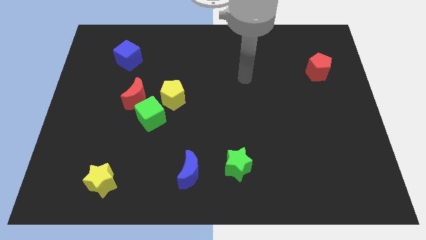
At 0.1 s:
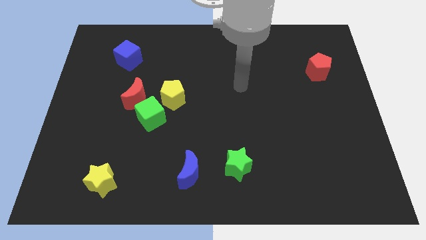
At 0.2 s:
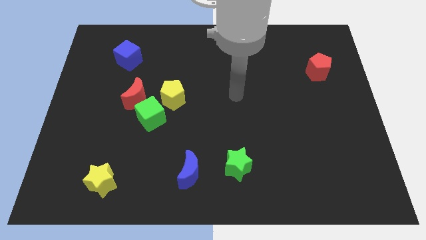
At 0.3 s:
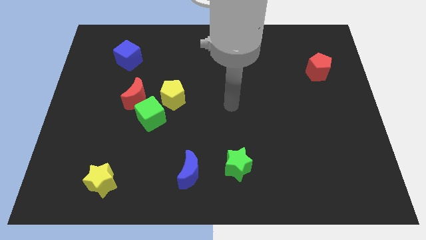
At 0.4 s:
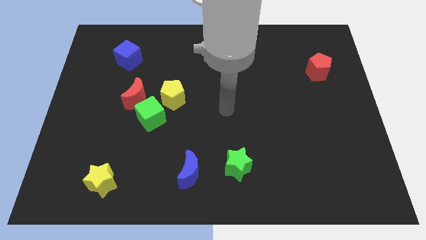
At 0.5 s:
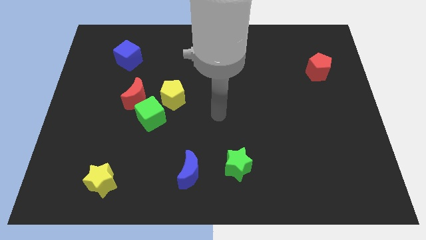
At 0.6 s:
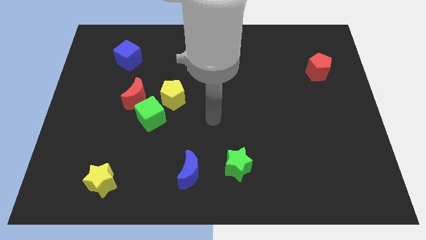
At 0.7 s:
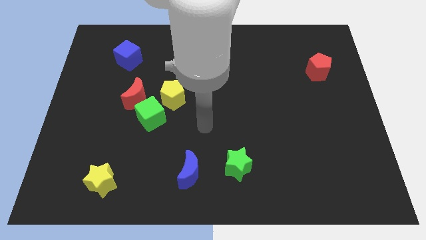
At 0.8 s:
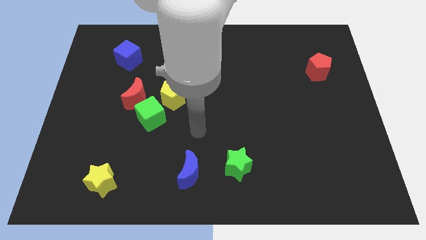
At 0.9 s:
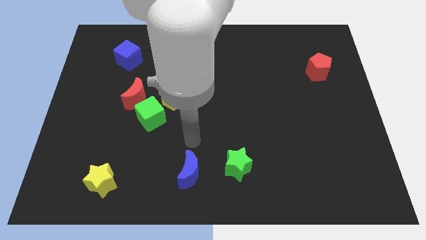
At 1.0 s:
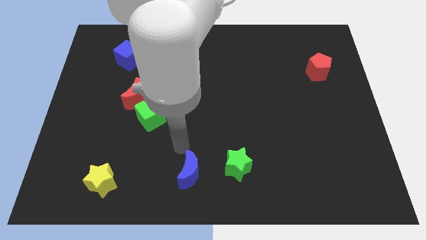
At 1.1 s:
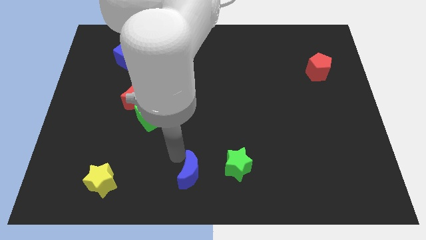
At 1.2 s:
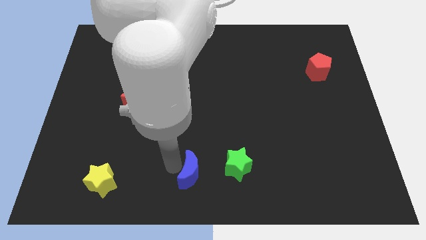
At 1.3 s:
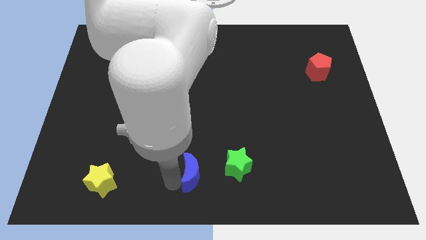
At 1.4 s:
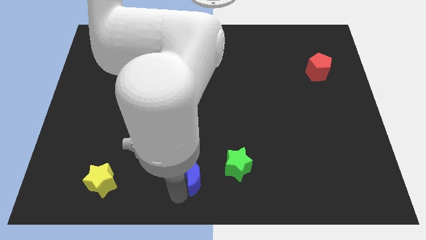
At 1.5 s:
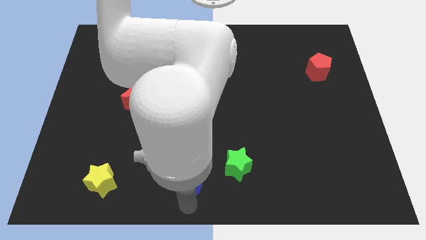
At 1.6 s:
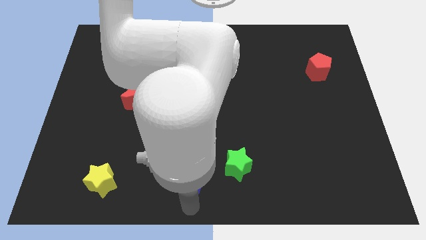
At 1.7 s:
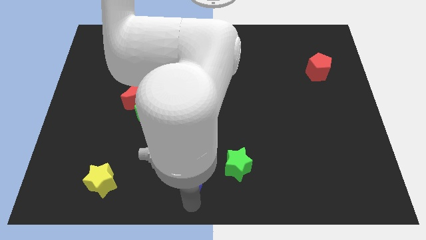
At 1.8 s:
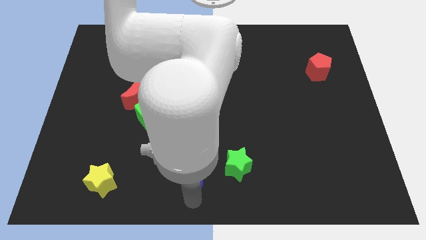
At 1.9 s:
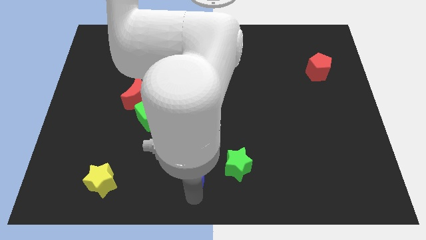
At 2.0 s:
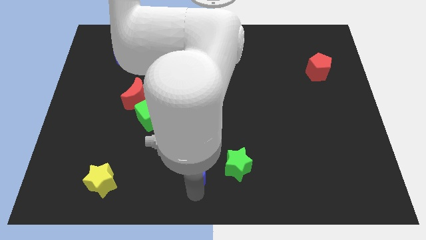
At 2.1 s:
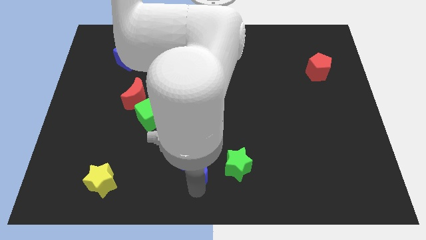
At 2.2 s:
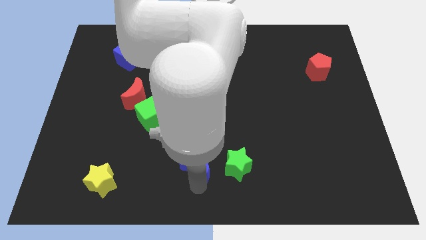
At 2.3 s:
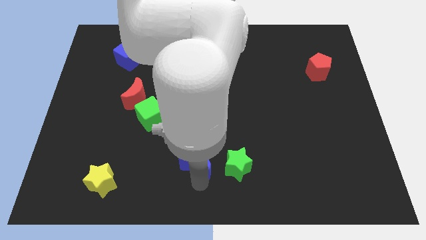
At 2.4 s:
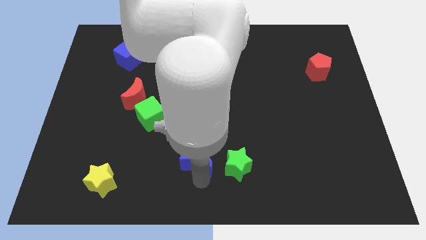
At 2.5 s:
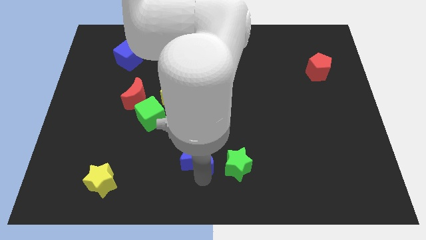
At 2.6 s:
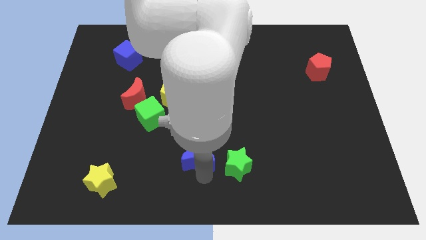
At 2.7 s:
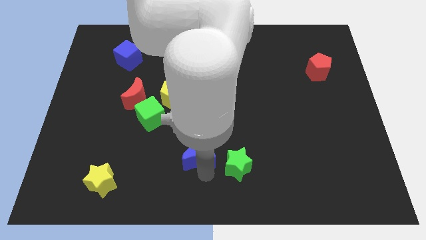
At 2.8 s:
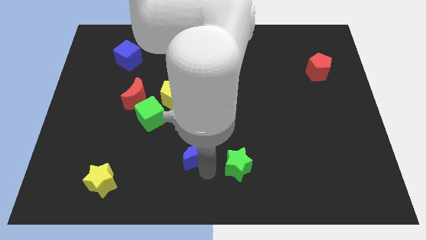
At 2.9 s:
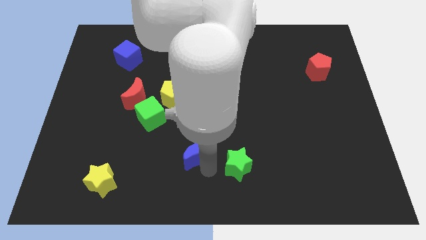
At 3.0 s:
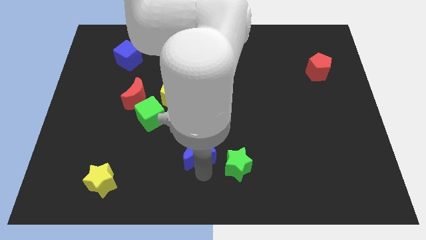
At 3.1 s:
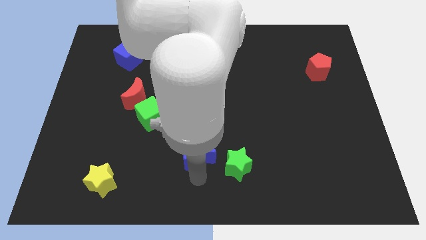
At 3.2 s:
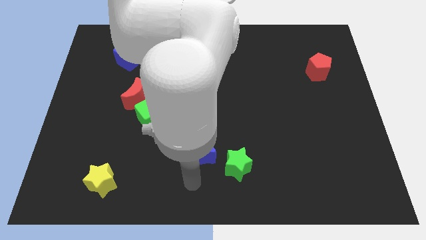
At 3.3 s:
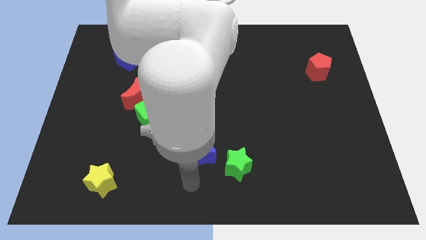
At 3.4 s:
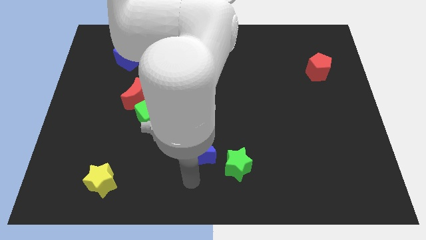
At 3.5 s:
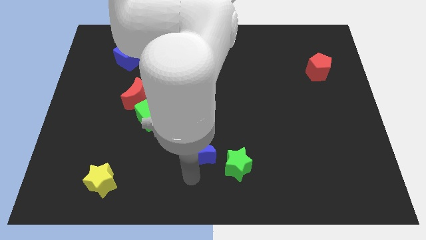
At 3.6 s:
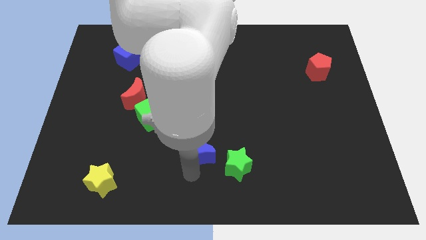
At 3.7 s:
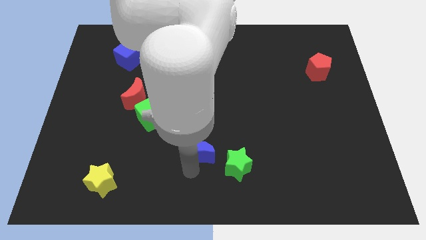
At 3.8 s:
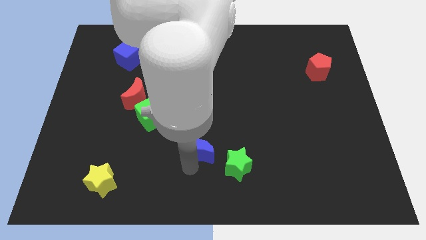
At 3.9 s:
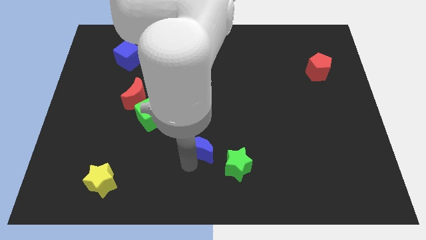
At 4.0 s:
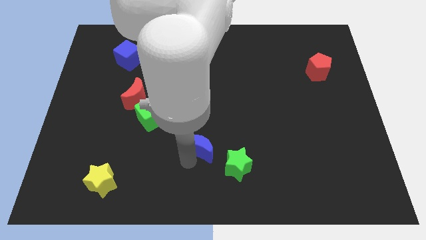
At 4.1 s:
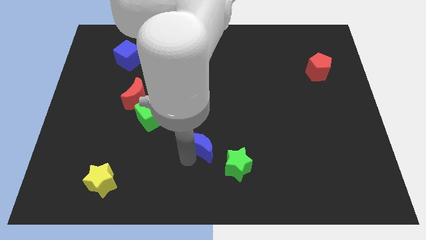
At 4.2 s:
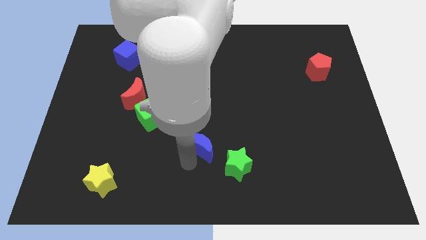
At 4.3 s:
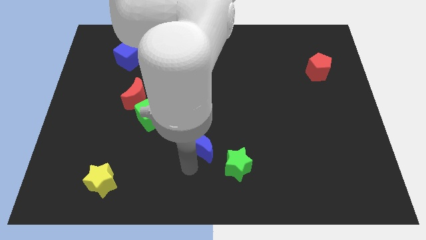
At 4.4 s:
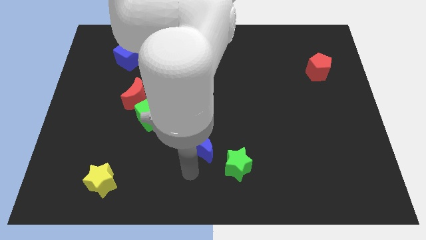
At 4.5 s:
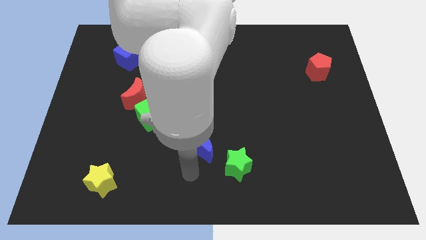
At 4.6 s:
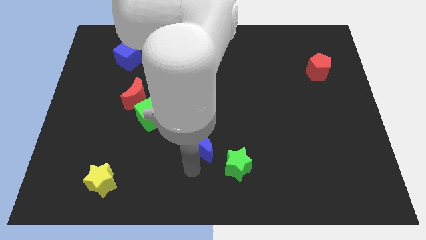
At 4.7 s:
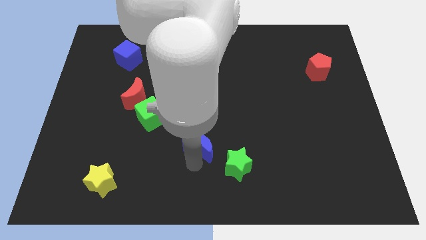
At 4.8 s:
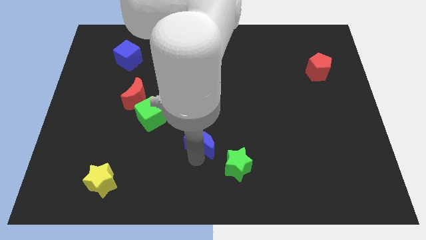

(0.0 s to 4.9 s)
push the blue moon to the center of the board

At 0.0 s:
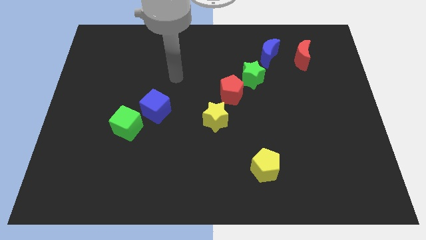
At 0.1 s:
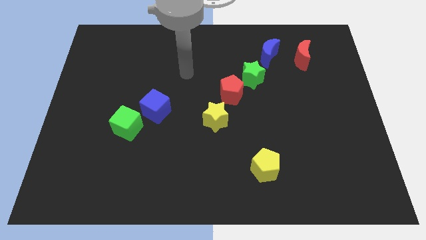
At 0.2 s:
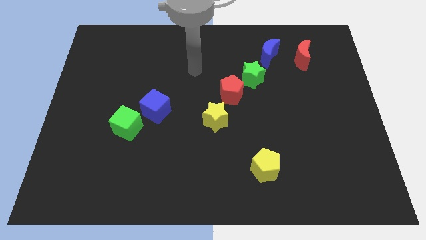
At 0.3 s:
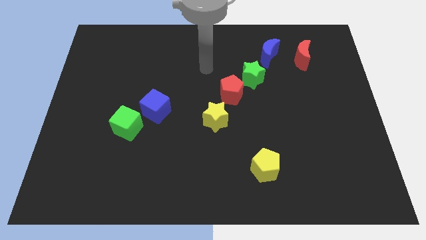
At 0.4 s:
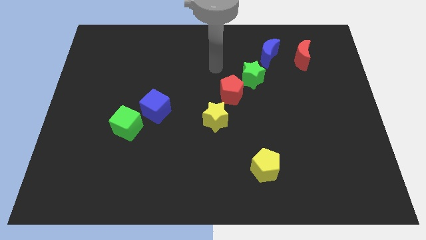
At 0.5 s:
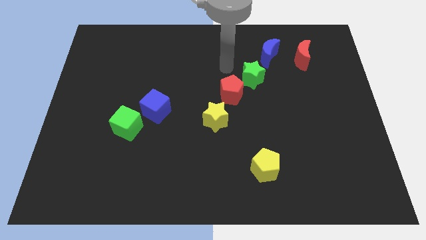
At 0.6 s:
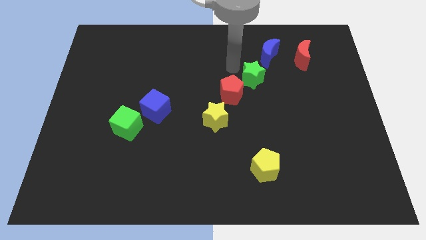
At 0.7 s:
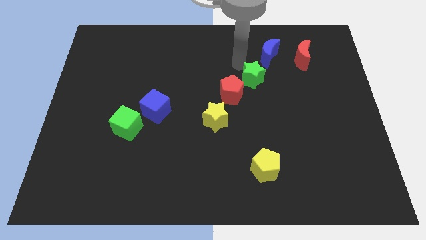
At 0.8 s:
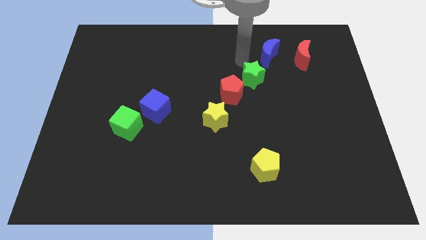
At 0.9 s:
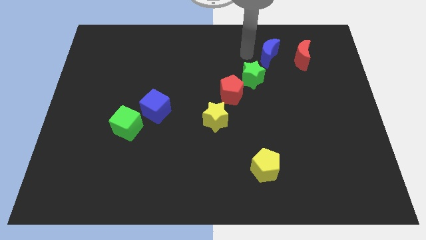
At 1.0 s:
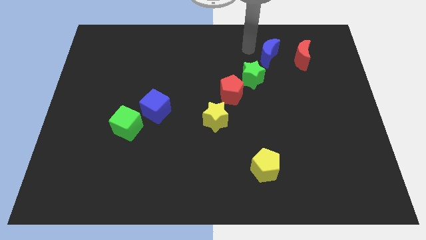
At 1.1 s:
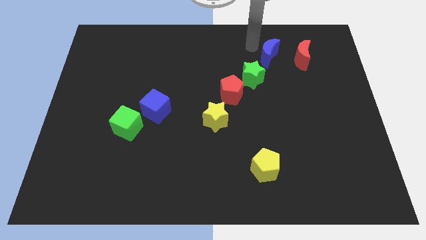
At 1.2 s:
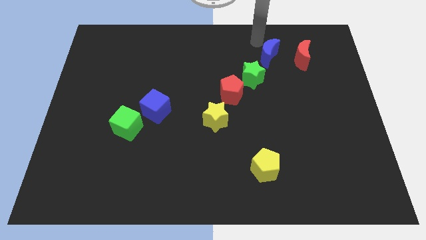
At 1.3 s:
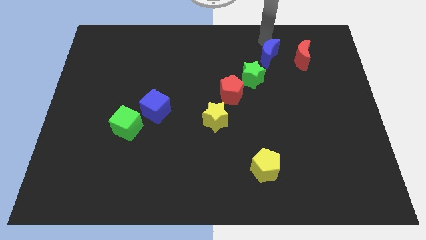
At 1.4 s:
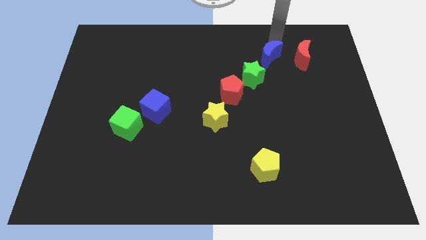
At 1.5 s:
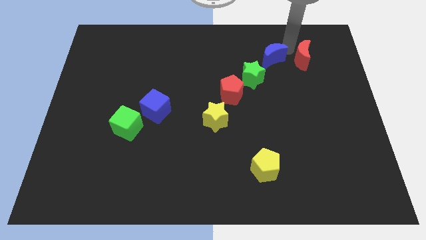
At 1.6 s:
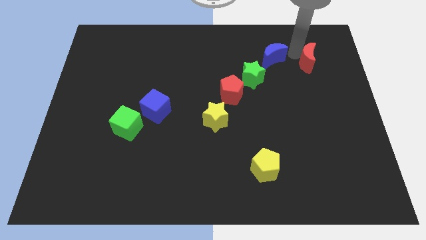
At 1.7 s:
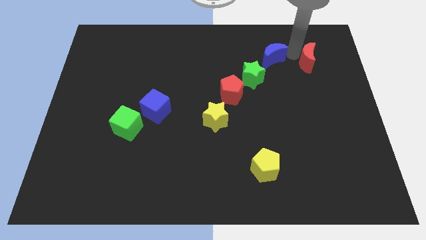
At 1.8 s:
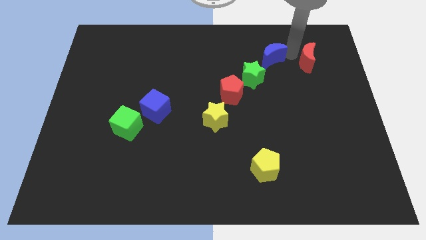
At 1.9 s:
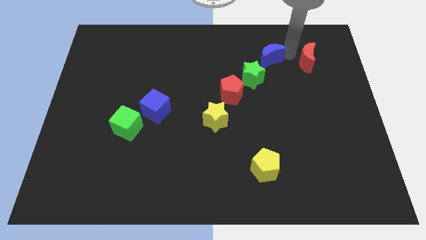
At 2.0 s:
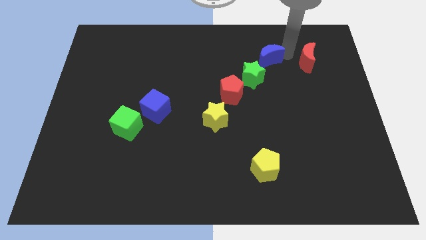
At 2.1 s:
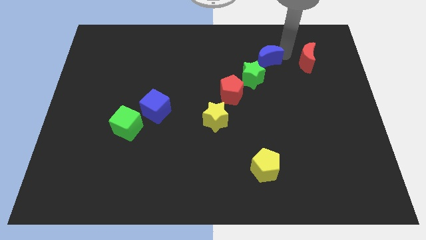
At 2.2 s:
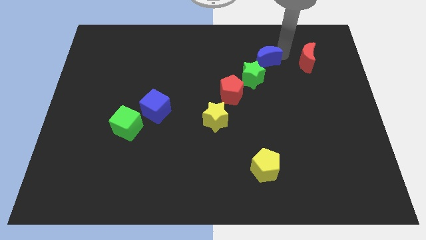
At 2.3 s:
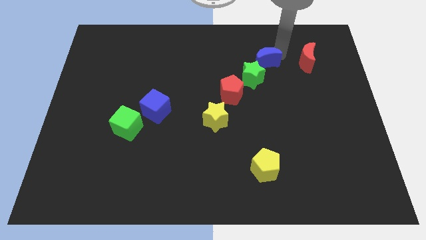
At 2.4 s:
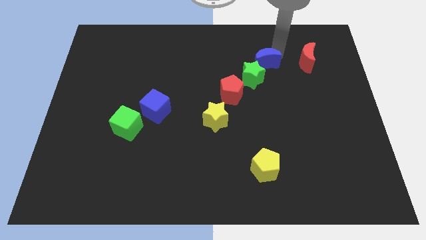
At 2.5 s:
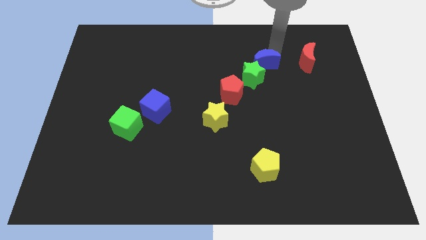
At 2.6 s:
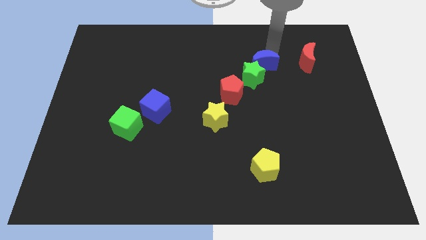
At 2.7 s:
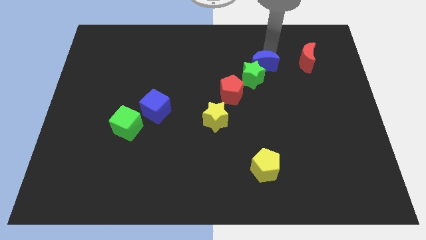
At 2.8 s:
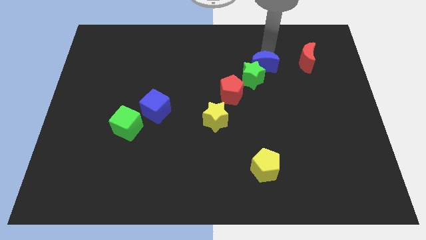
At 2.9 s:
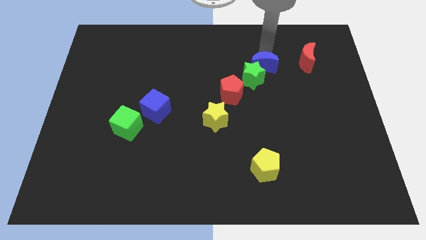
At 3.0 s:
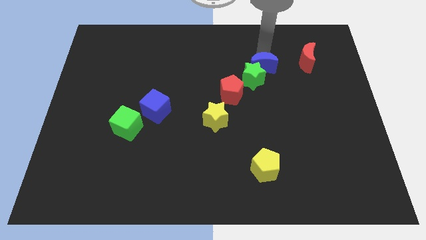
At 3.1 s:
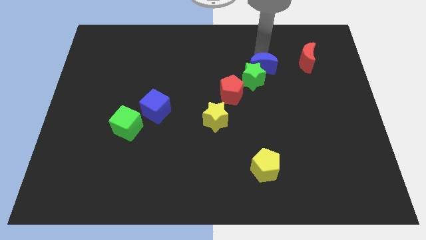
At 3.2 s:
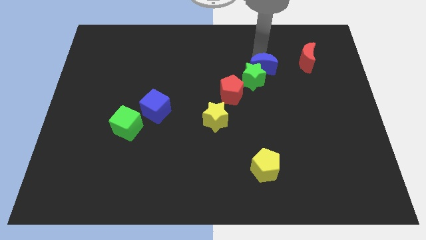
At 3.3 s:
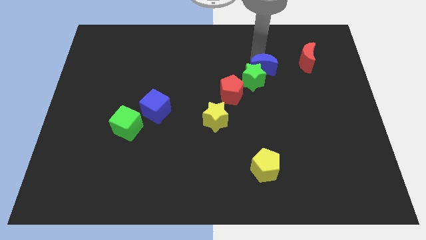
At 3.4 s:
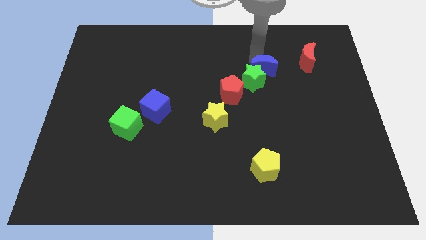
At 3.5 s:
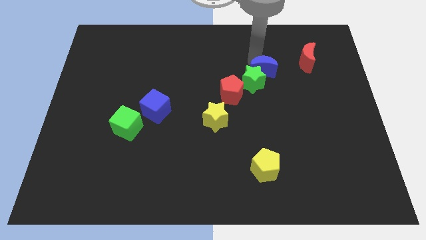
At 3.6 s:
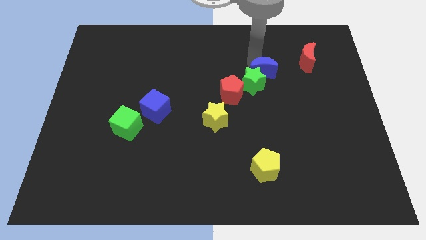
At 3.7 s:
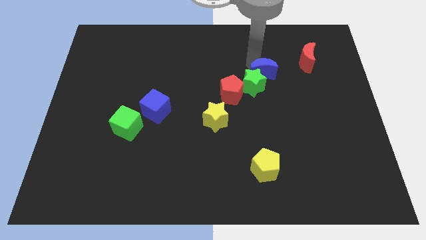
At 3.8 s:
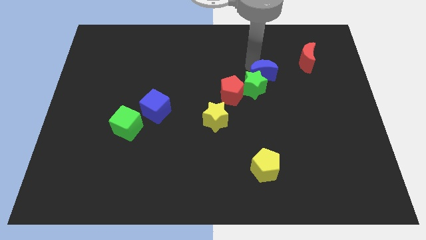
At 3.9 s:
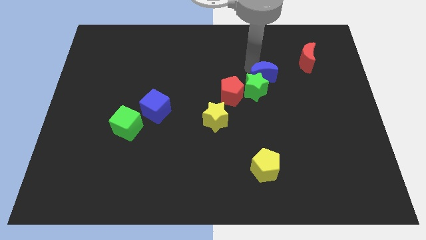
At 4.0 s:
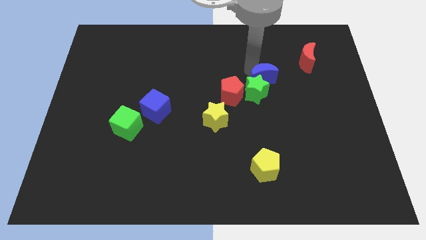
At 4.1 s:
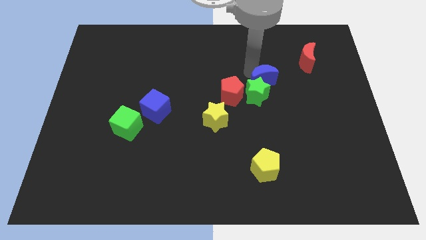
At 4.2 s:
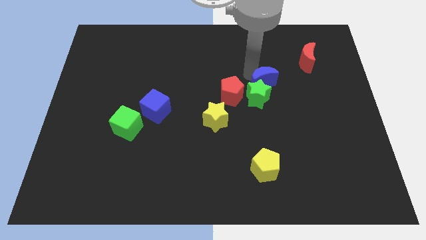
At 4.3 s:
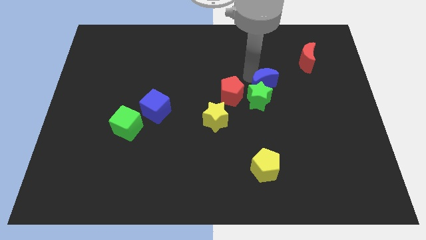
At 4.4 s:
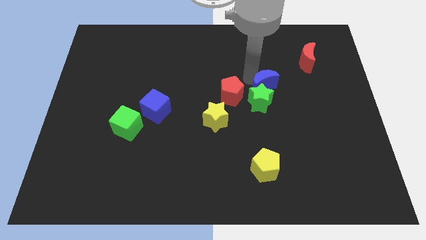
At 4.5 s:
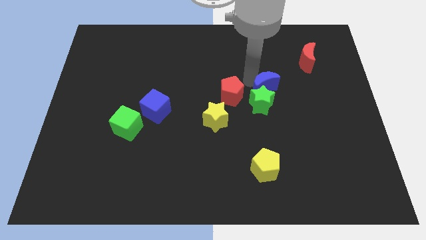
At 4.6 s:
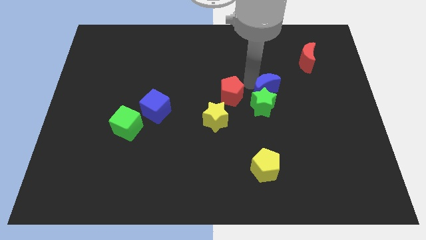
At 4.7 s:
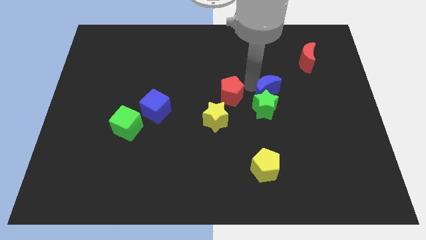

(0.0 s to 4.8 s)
push the blue moon to the middle
